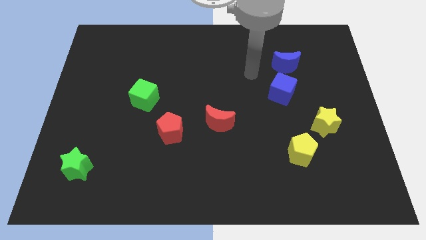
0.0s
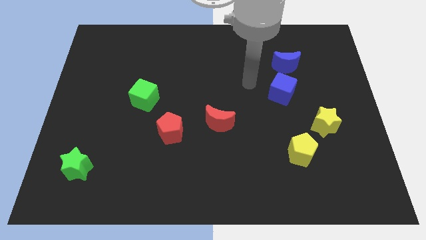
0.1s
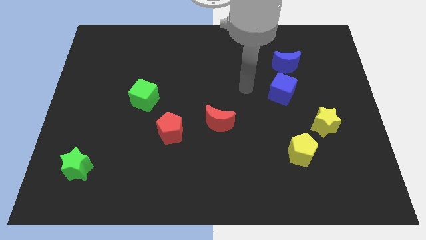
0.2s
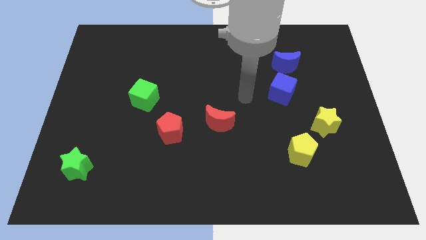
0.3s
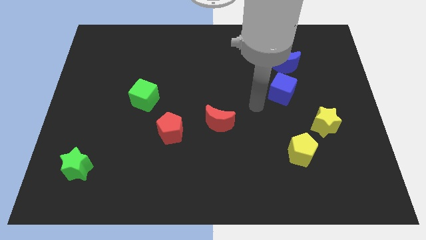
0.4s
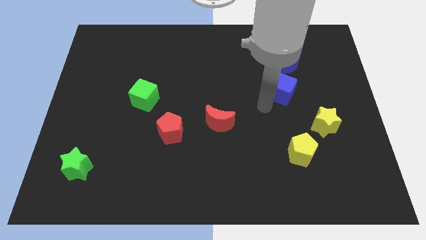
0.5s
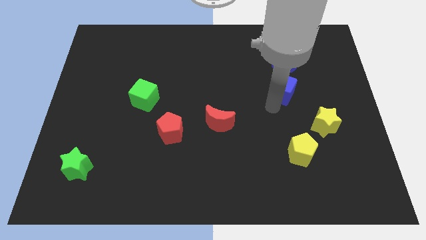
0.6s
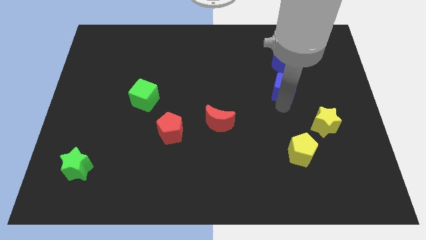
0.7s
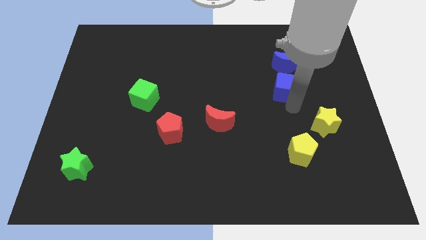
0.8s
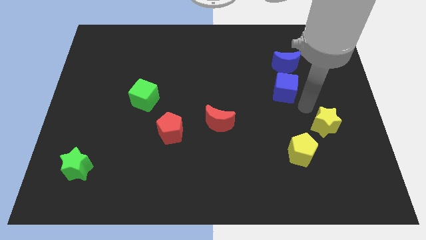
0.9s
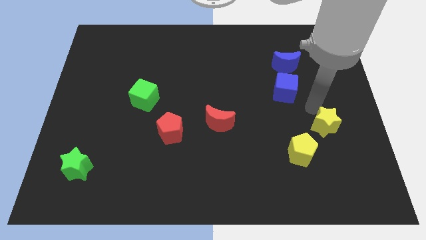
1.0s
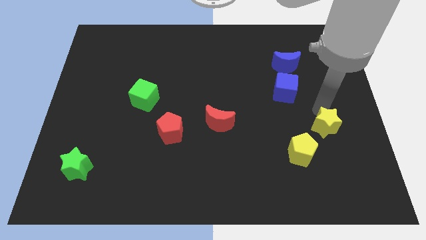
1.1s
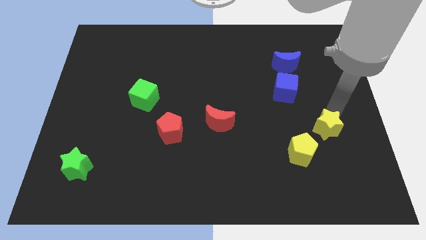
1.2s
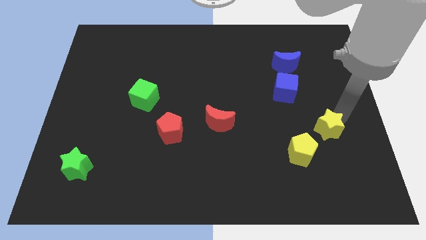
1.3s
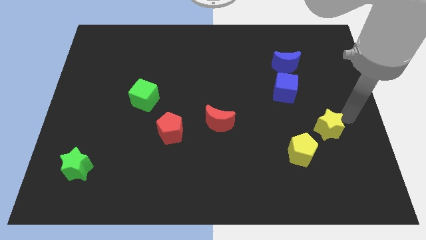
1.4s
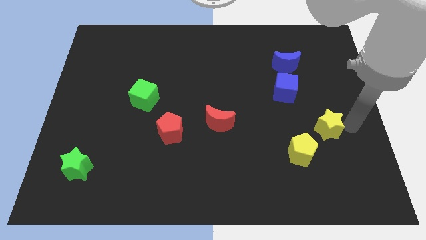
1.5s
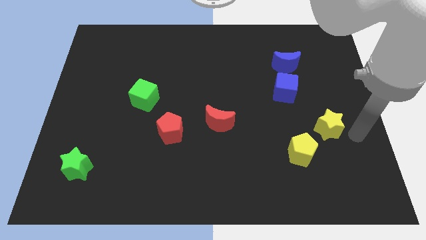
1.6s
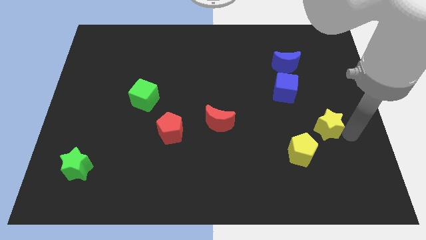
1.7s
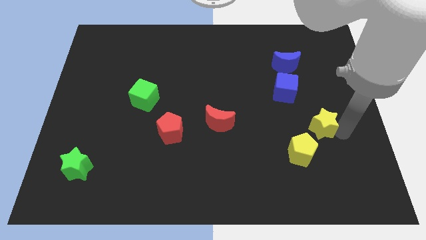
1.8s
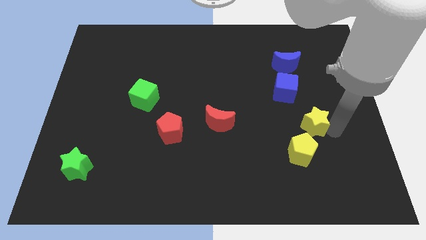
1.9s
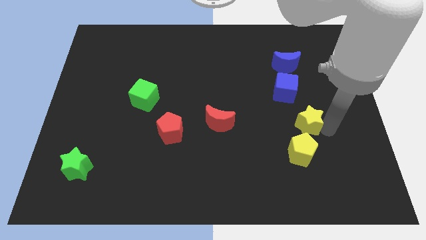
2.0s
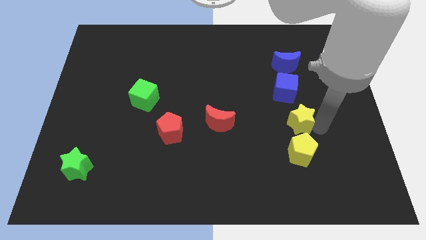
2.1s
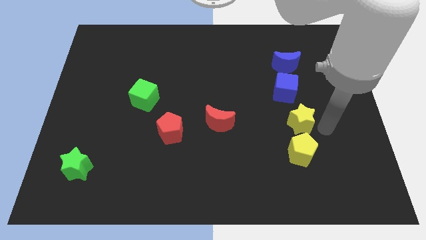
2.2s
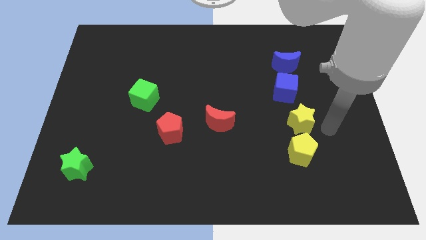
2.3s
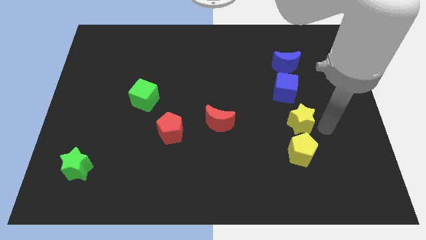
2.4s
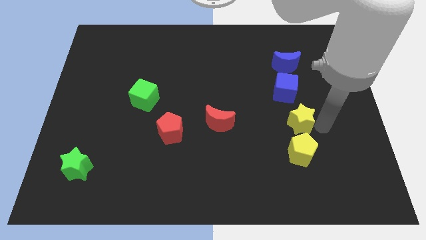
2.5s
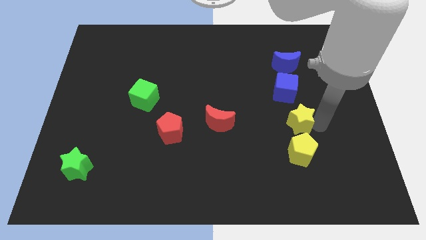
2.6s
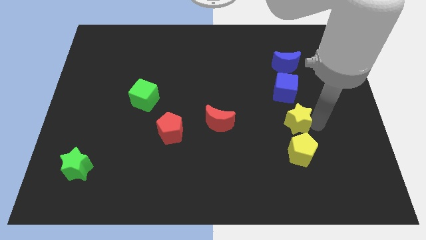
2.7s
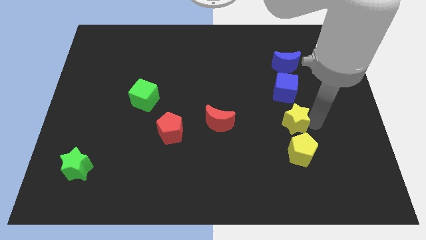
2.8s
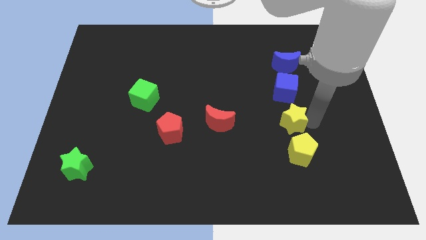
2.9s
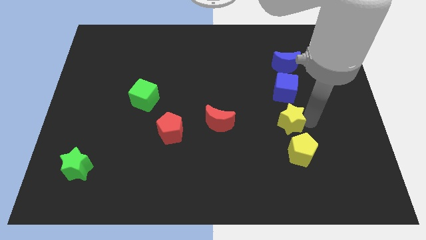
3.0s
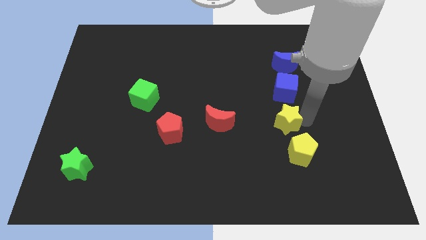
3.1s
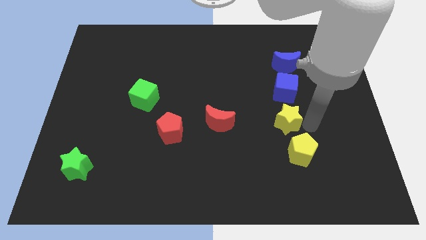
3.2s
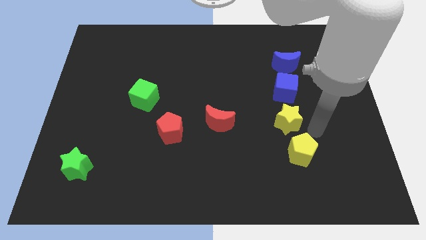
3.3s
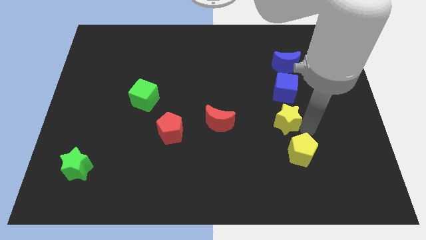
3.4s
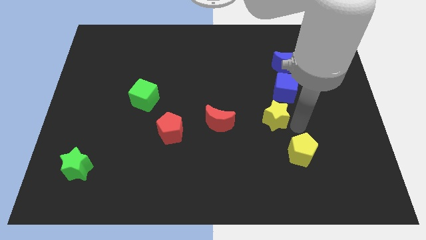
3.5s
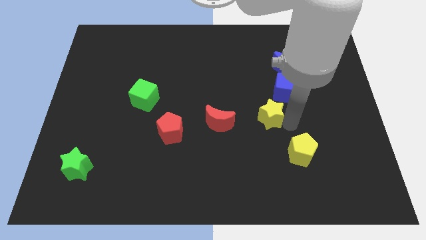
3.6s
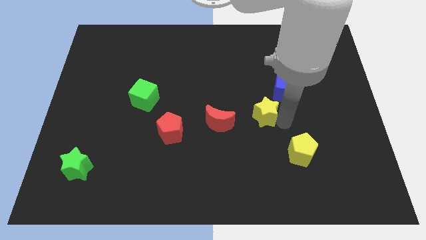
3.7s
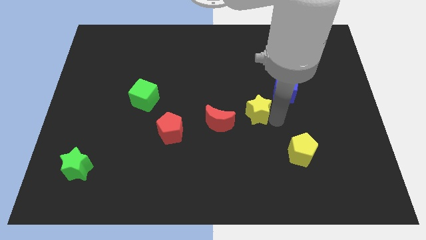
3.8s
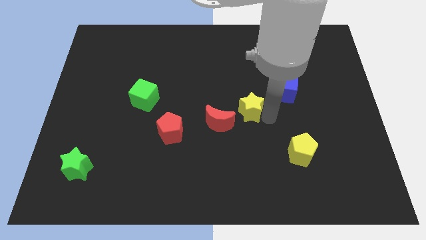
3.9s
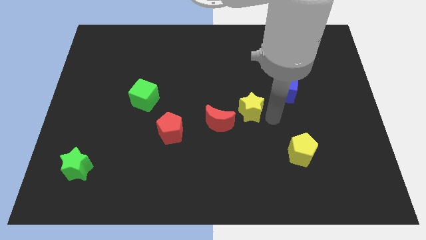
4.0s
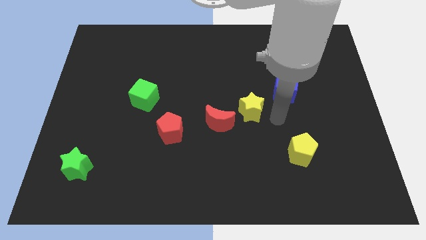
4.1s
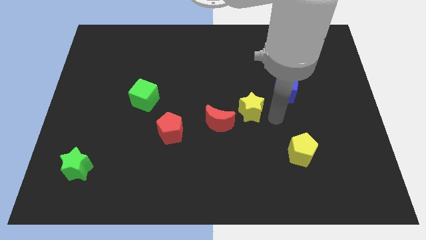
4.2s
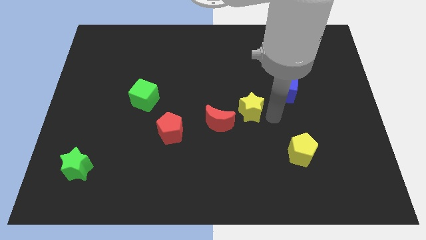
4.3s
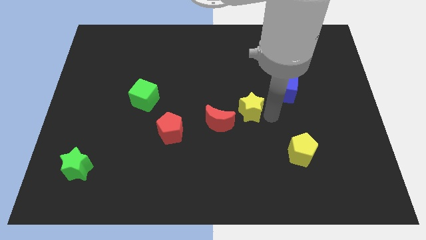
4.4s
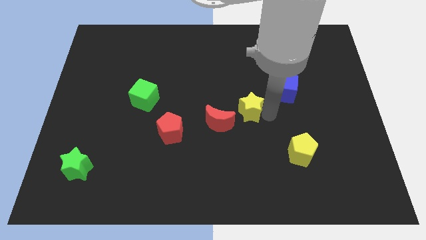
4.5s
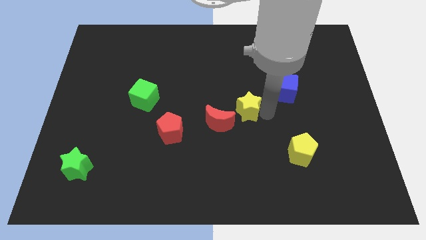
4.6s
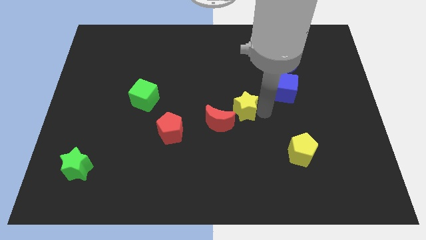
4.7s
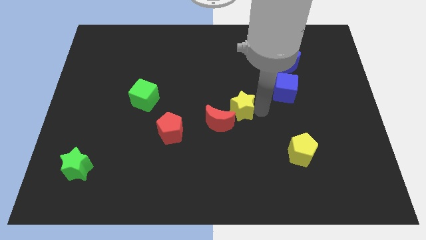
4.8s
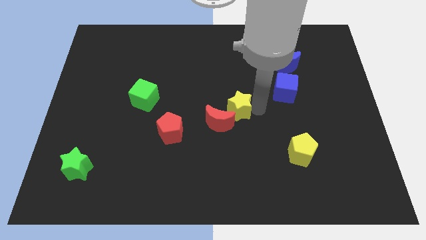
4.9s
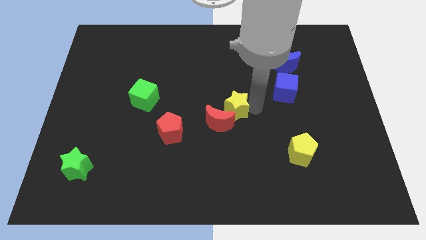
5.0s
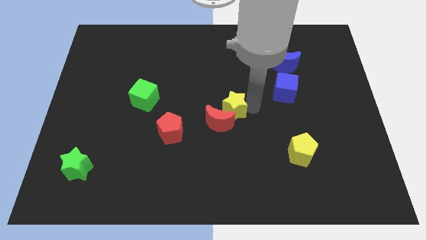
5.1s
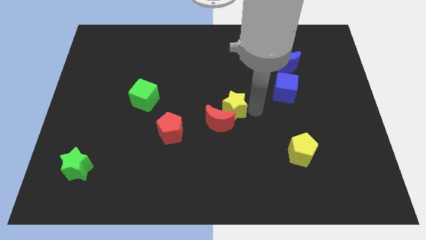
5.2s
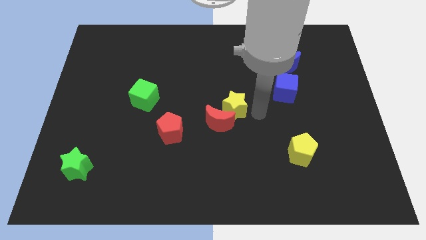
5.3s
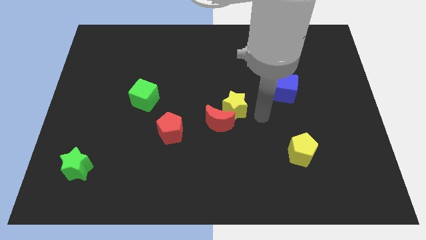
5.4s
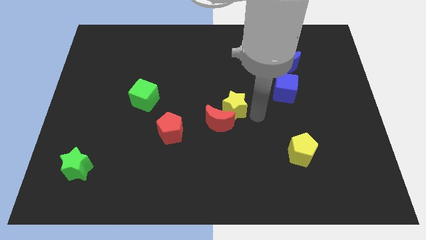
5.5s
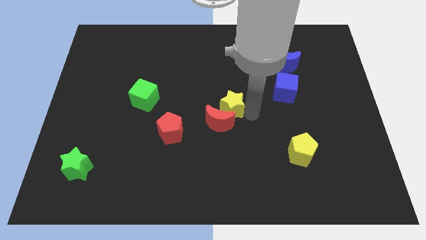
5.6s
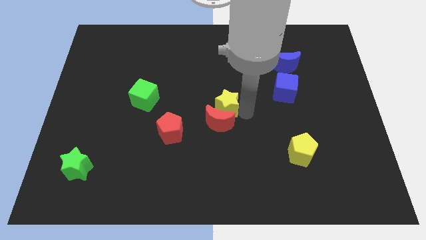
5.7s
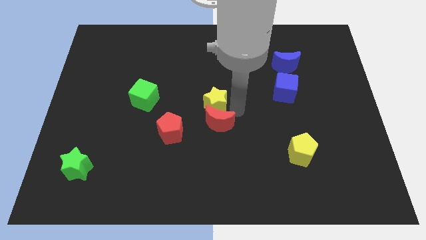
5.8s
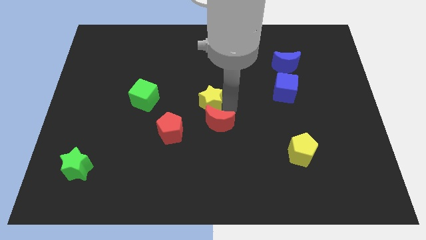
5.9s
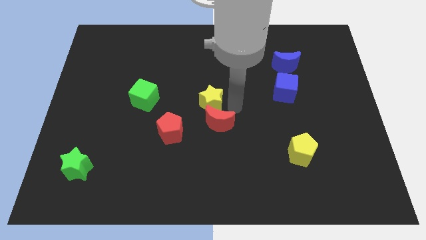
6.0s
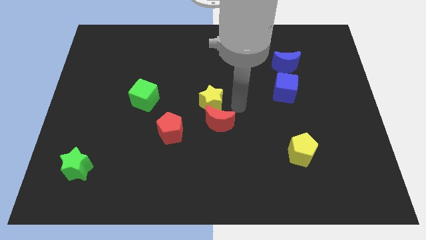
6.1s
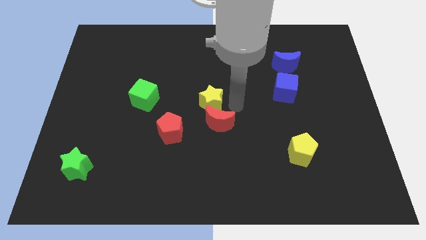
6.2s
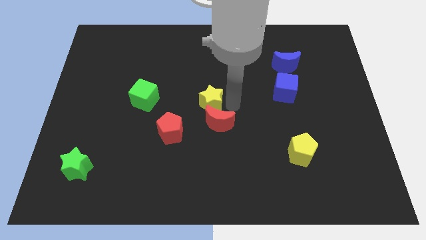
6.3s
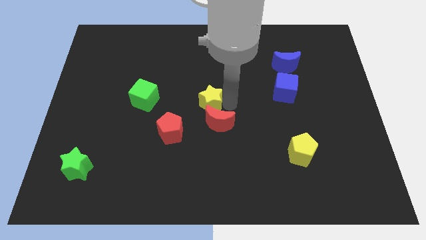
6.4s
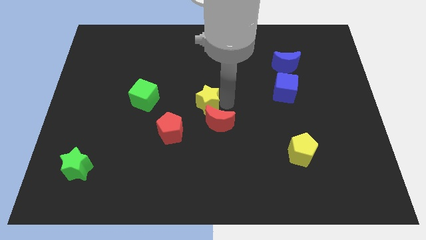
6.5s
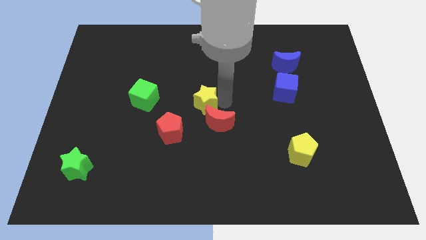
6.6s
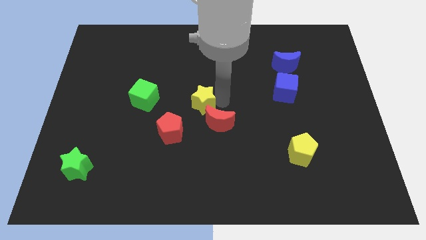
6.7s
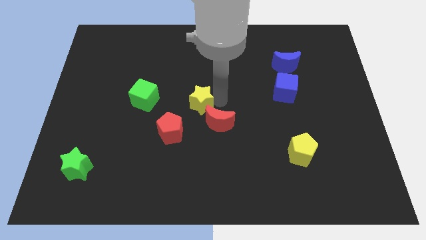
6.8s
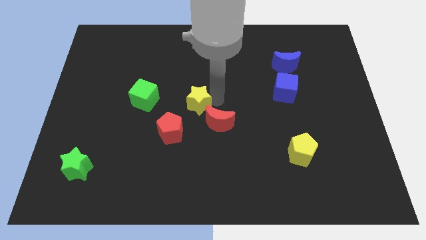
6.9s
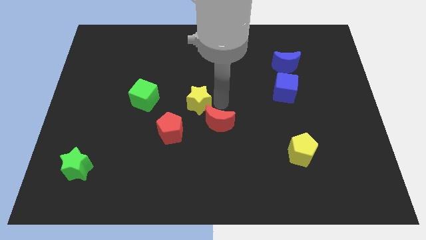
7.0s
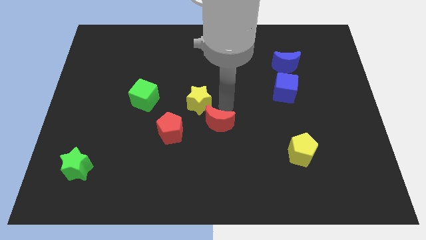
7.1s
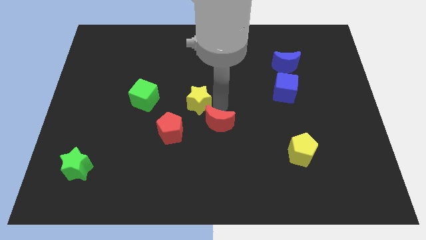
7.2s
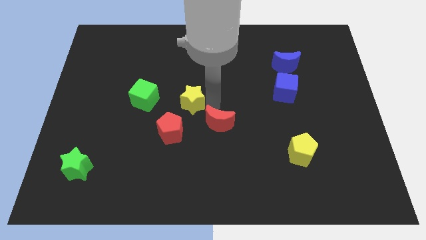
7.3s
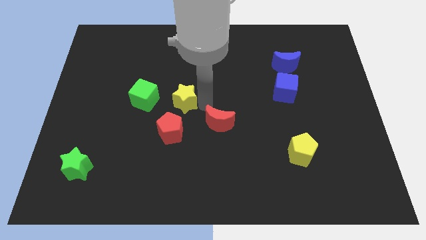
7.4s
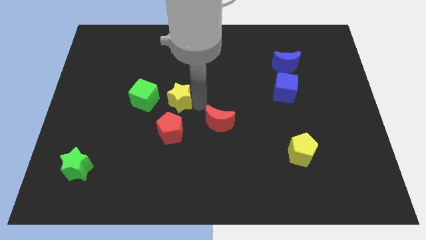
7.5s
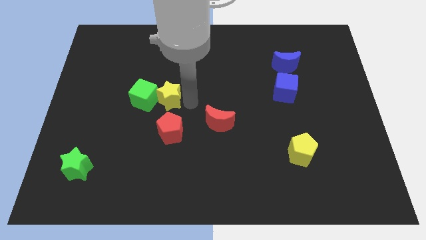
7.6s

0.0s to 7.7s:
put the yellow star close to the green cube
